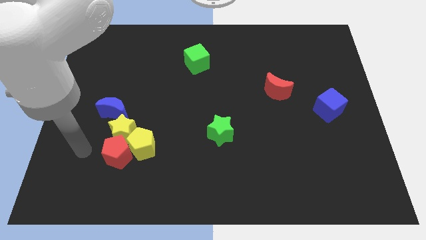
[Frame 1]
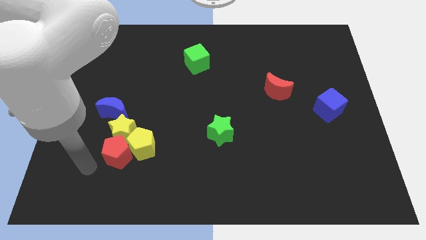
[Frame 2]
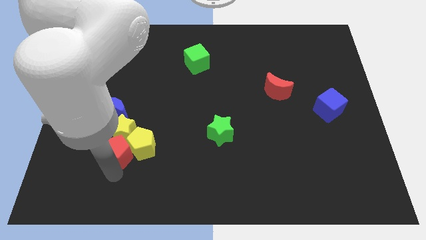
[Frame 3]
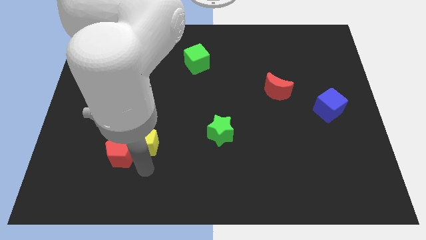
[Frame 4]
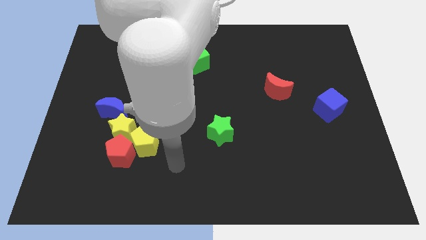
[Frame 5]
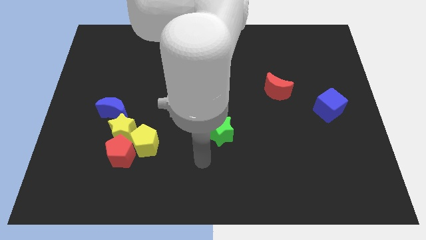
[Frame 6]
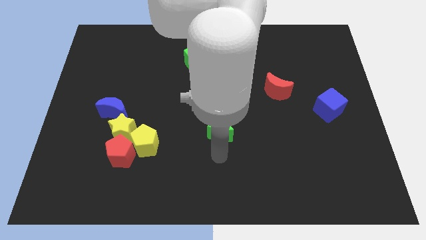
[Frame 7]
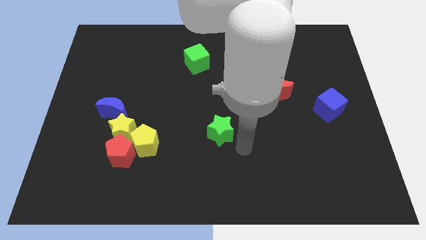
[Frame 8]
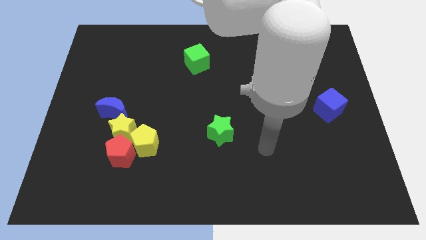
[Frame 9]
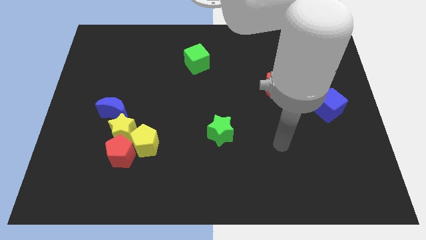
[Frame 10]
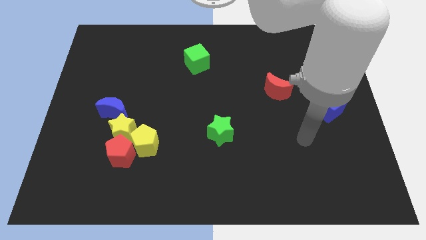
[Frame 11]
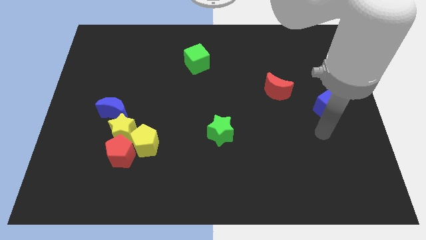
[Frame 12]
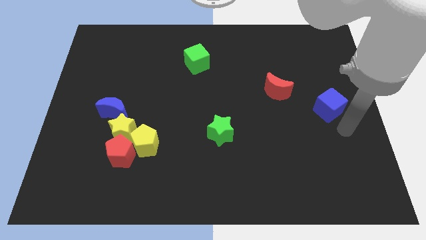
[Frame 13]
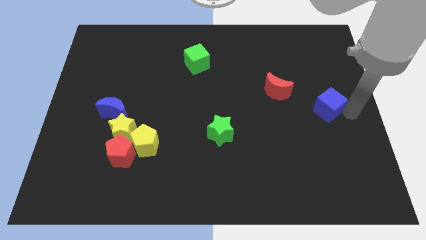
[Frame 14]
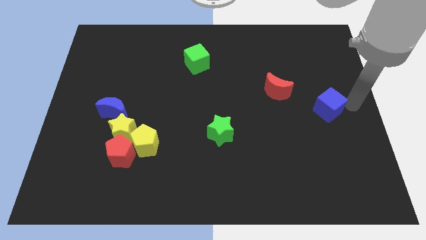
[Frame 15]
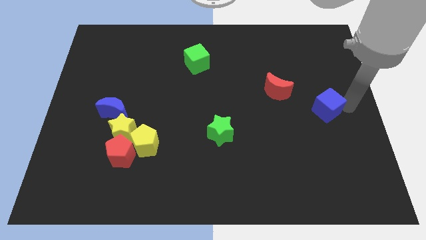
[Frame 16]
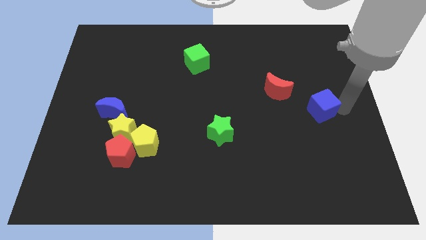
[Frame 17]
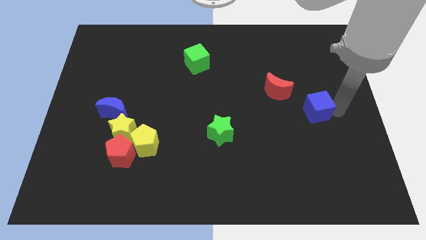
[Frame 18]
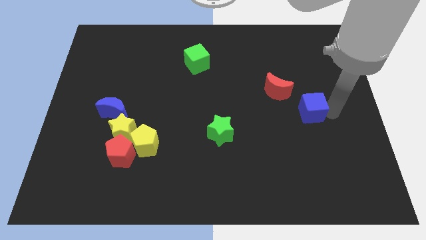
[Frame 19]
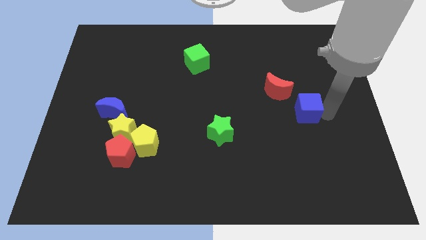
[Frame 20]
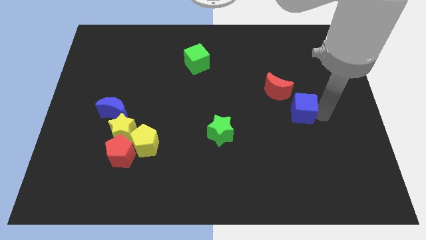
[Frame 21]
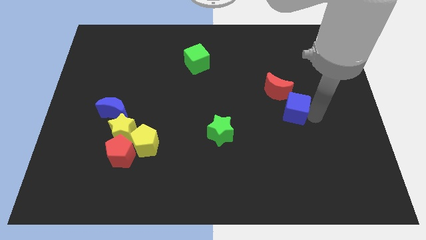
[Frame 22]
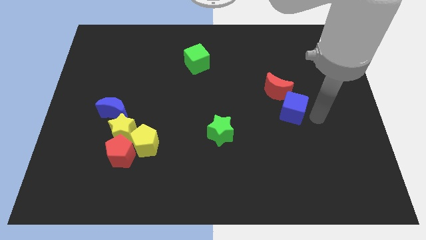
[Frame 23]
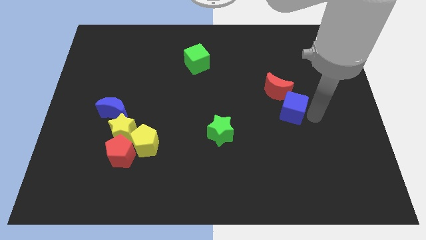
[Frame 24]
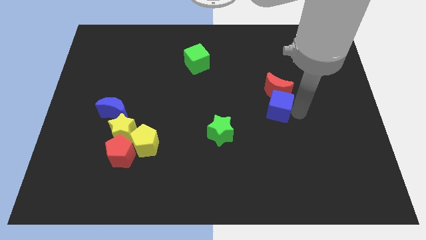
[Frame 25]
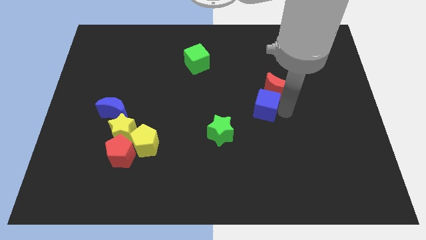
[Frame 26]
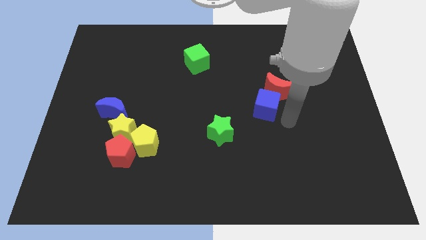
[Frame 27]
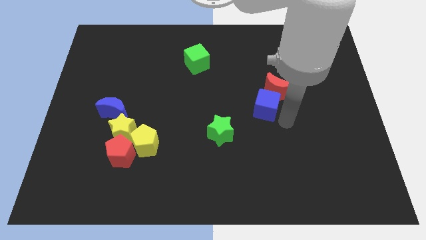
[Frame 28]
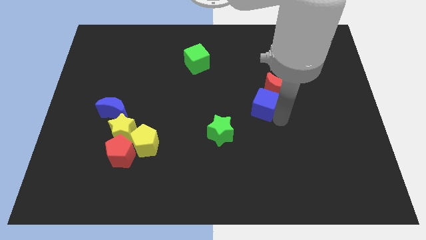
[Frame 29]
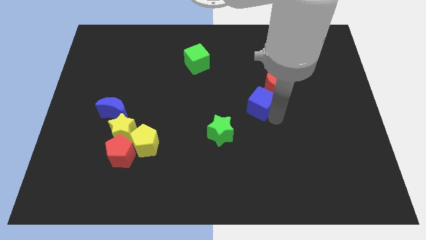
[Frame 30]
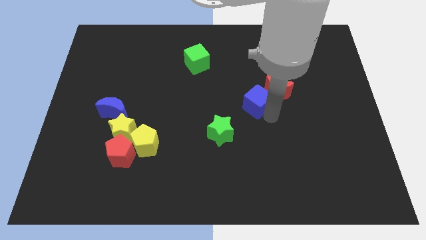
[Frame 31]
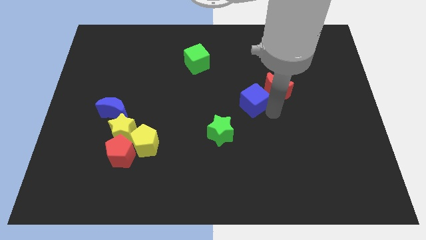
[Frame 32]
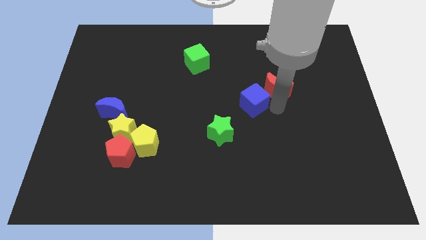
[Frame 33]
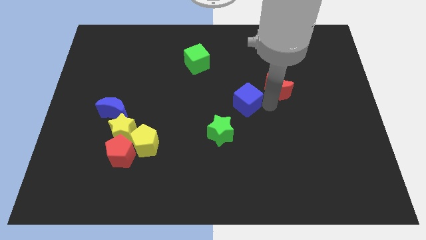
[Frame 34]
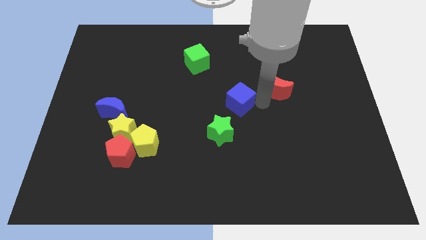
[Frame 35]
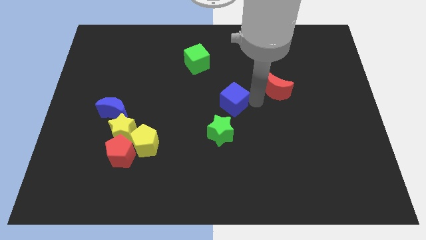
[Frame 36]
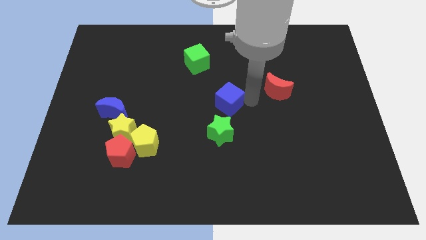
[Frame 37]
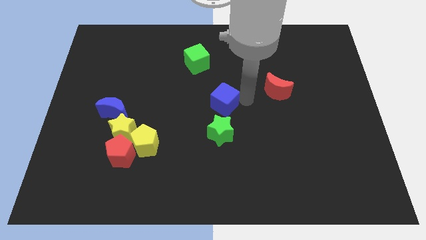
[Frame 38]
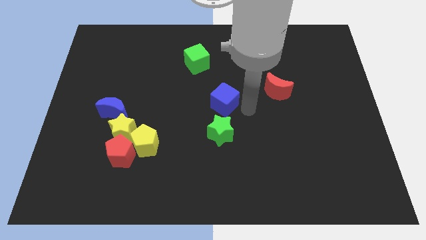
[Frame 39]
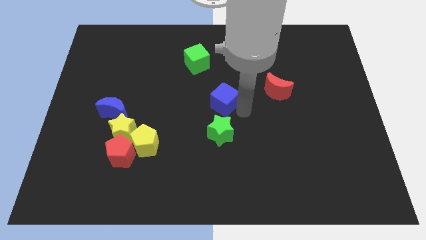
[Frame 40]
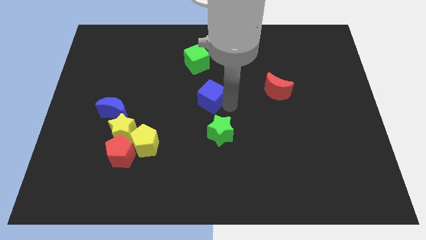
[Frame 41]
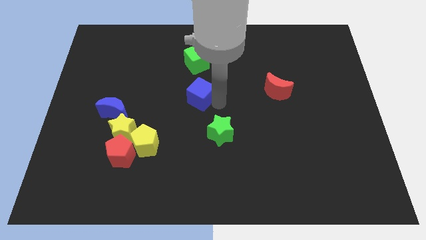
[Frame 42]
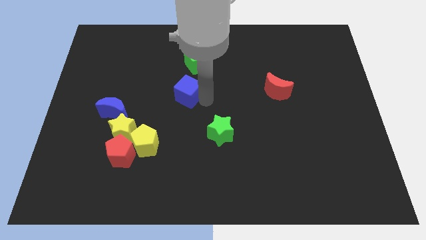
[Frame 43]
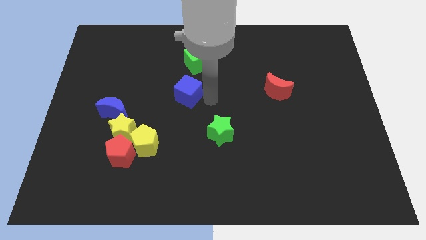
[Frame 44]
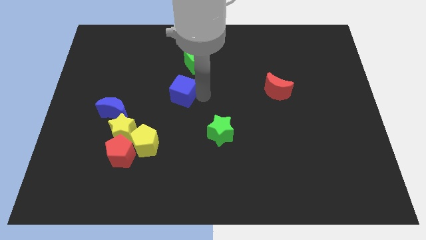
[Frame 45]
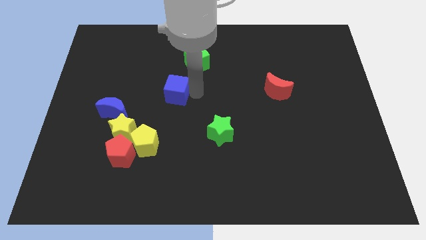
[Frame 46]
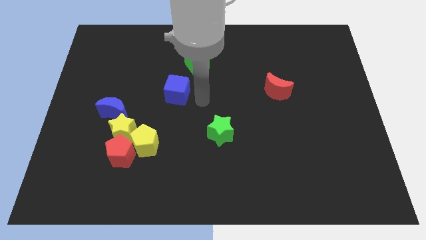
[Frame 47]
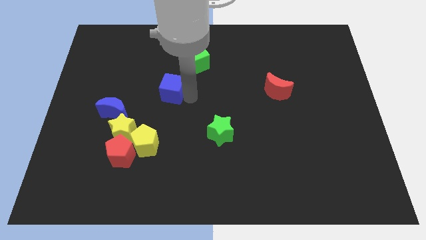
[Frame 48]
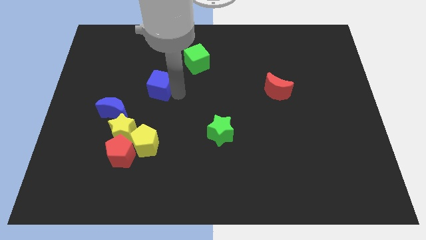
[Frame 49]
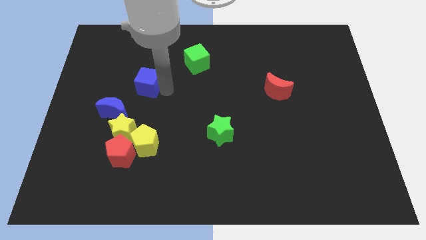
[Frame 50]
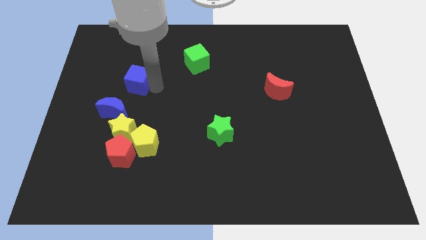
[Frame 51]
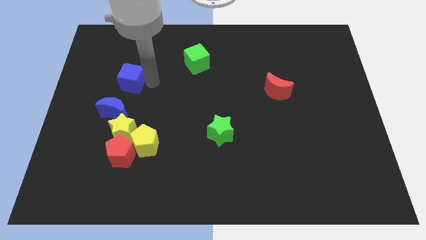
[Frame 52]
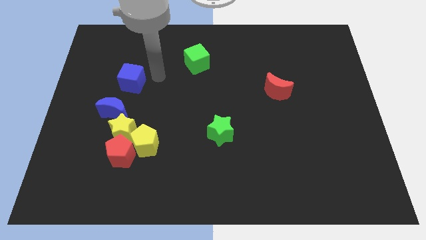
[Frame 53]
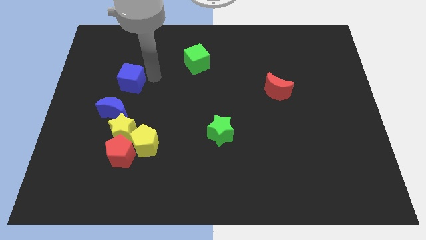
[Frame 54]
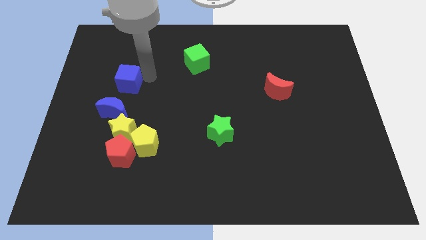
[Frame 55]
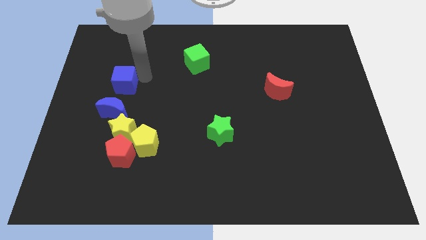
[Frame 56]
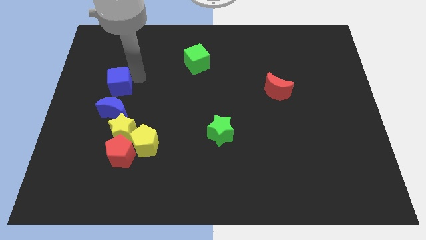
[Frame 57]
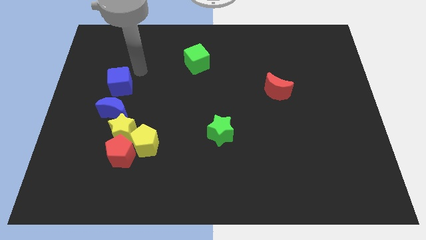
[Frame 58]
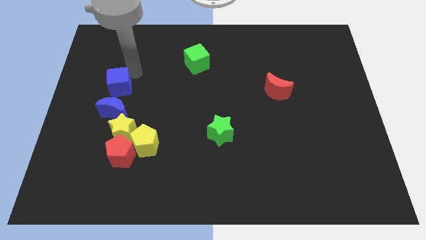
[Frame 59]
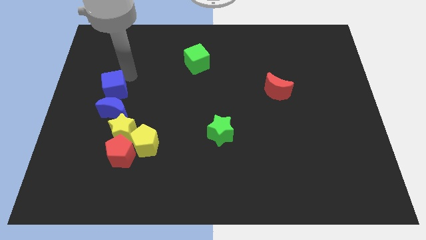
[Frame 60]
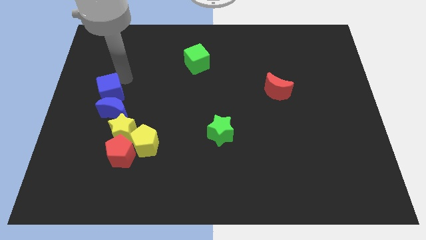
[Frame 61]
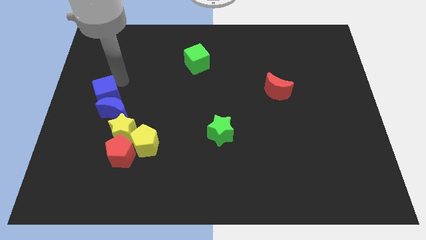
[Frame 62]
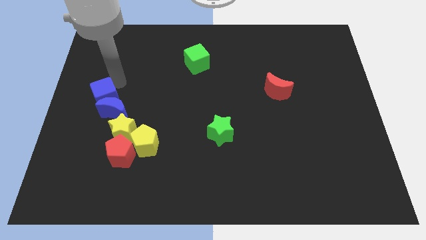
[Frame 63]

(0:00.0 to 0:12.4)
move the blue cube to the top left of the yellow star

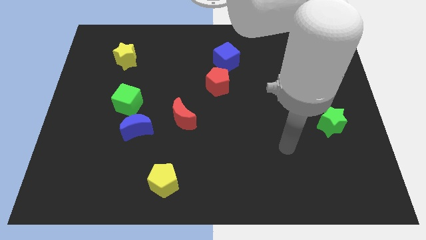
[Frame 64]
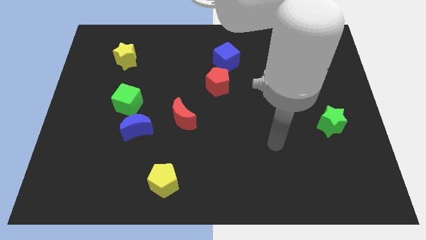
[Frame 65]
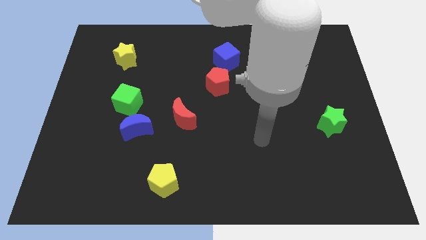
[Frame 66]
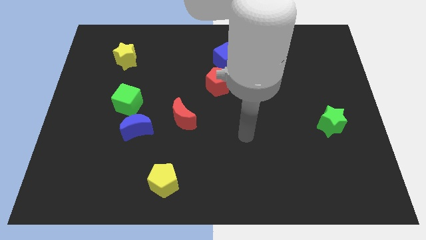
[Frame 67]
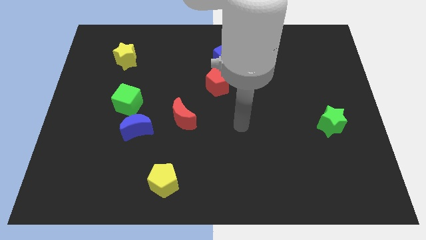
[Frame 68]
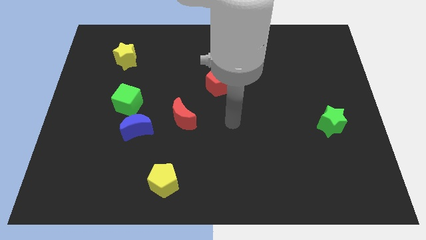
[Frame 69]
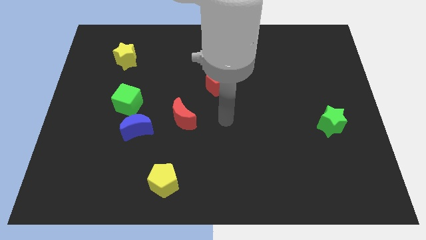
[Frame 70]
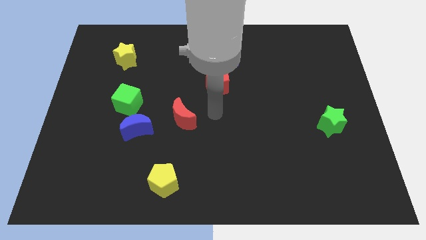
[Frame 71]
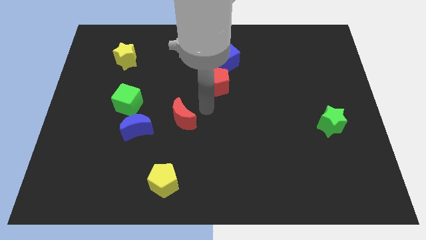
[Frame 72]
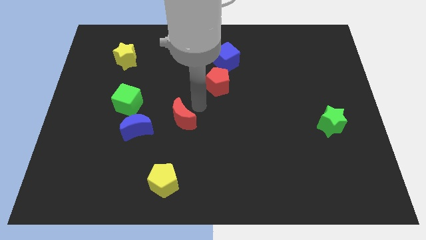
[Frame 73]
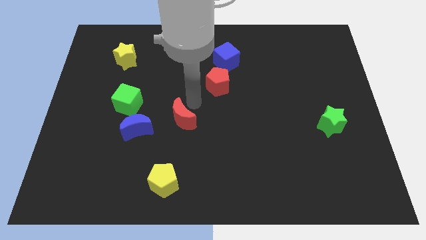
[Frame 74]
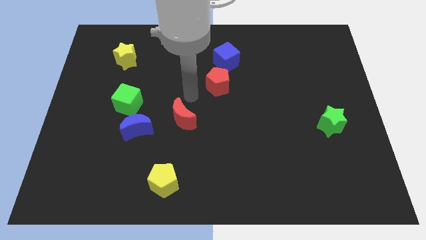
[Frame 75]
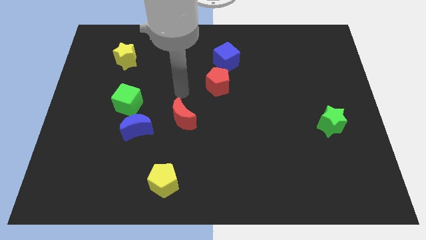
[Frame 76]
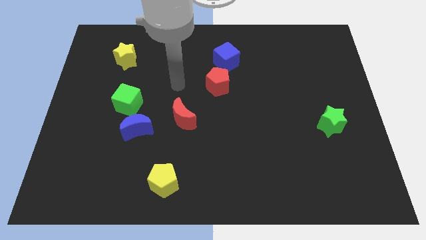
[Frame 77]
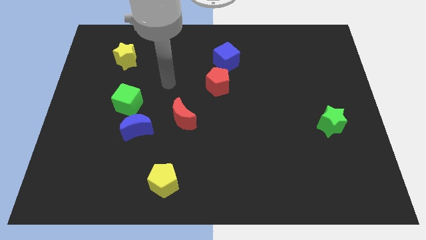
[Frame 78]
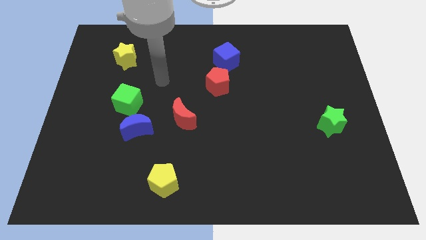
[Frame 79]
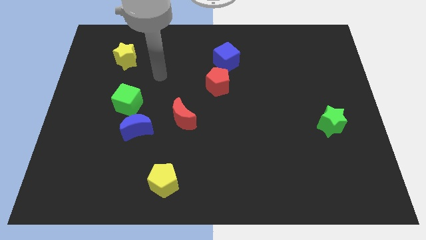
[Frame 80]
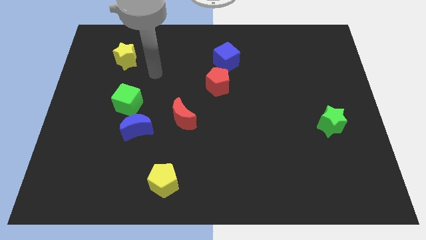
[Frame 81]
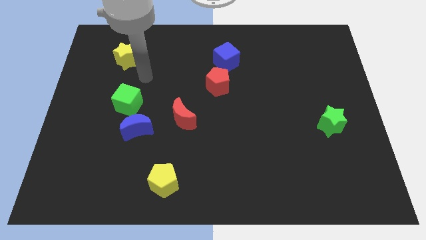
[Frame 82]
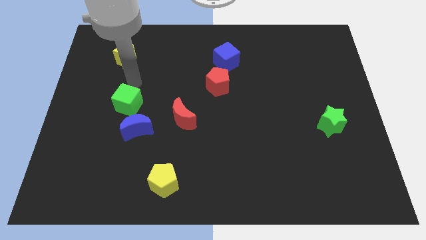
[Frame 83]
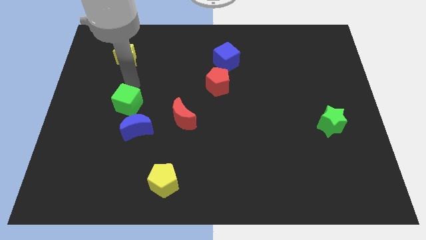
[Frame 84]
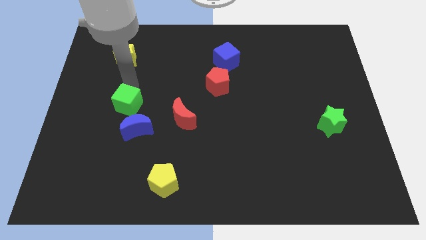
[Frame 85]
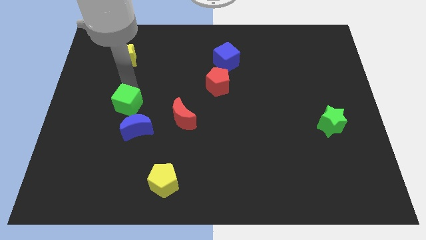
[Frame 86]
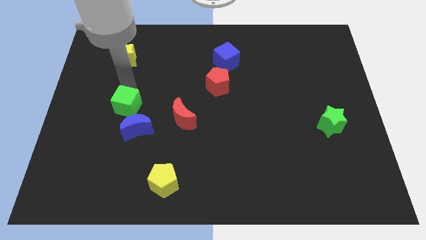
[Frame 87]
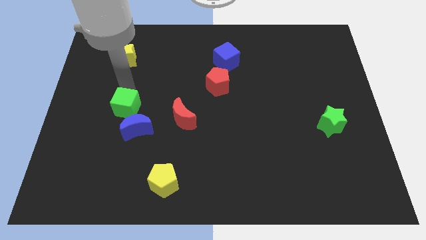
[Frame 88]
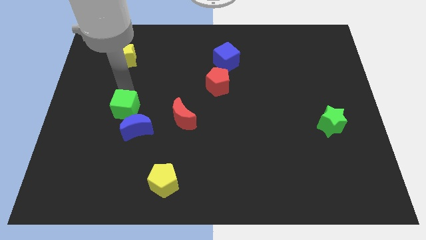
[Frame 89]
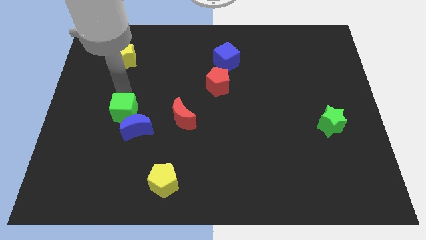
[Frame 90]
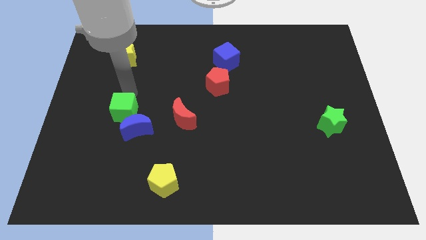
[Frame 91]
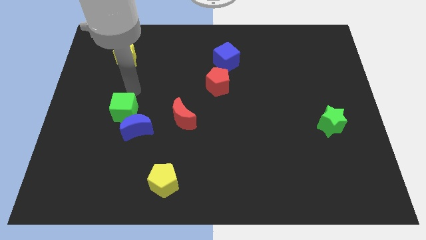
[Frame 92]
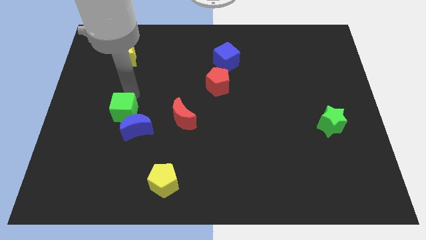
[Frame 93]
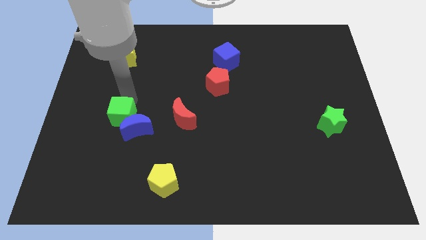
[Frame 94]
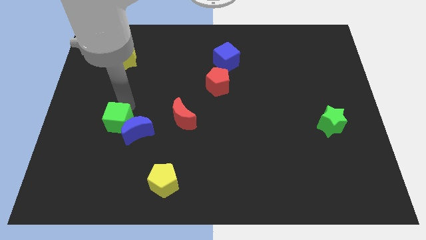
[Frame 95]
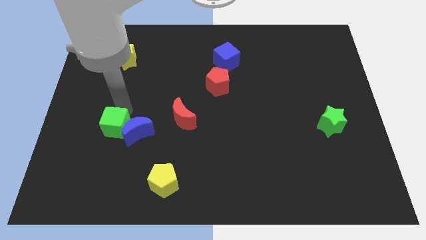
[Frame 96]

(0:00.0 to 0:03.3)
put the green cube to the bottom left side of the blue moon
